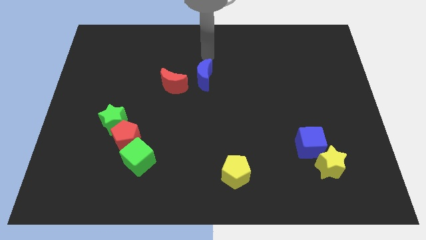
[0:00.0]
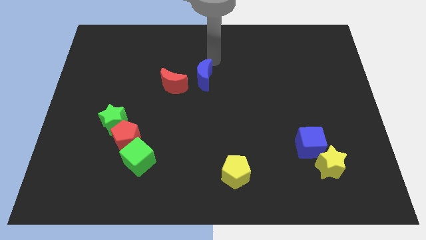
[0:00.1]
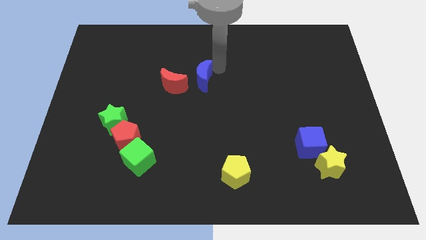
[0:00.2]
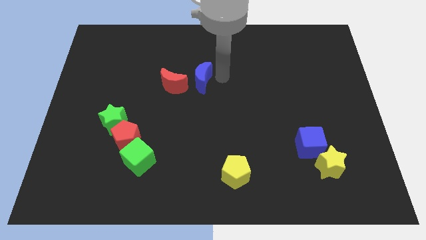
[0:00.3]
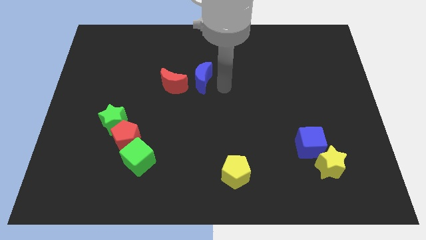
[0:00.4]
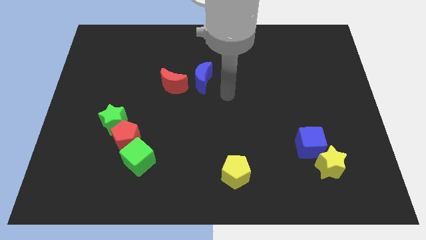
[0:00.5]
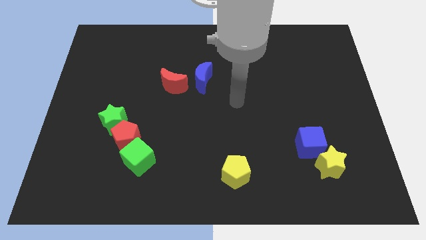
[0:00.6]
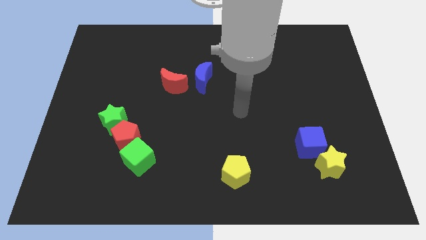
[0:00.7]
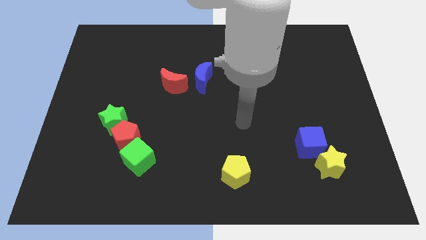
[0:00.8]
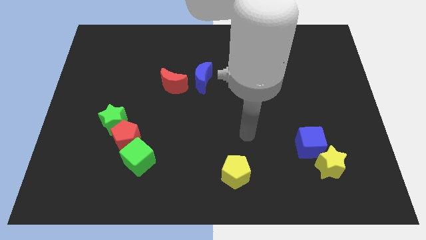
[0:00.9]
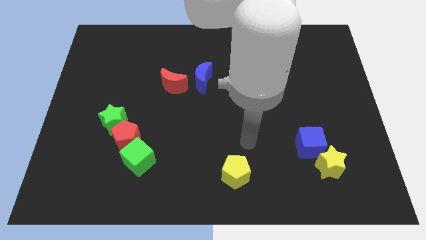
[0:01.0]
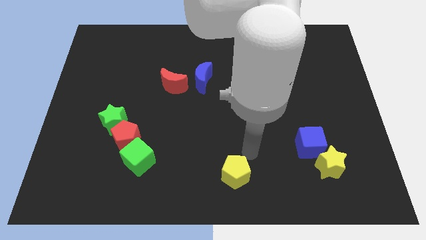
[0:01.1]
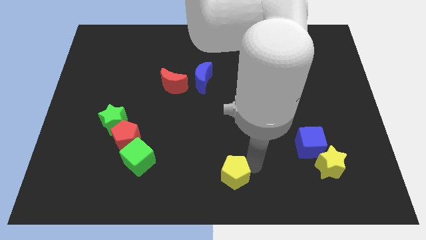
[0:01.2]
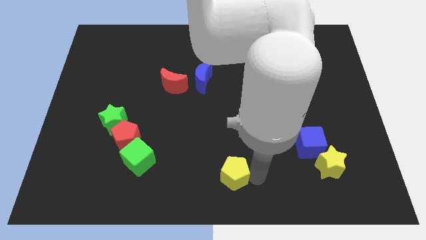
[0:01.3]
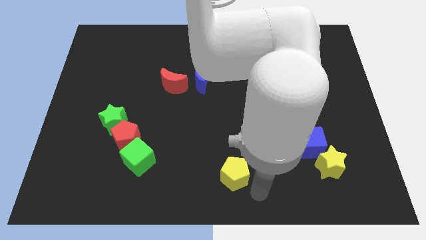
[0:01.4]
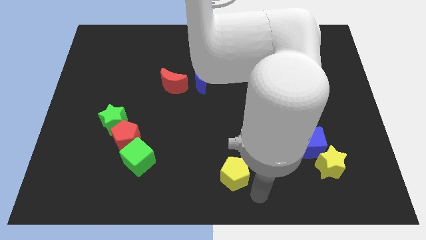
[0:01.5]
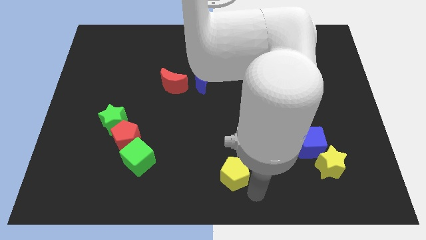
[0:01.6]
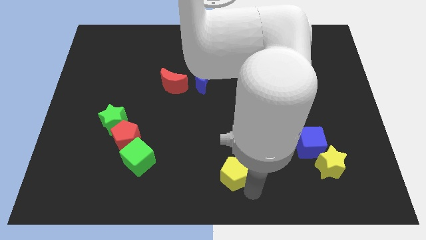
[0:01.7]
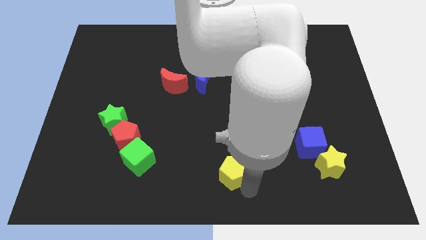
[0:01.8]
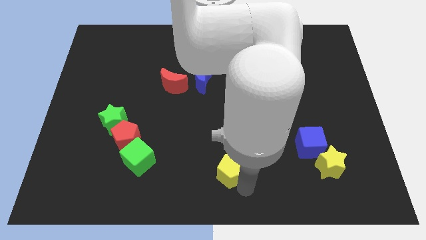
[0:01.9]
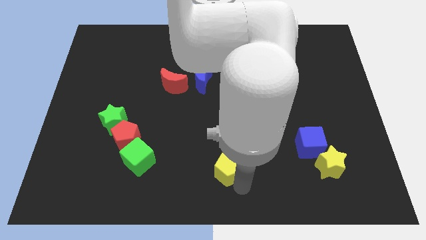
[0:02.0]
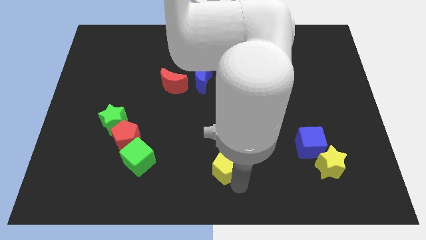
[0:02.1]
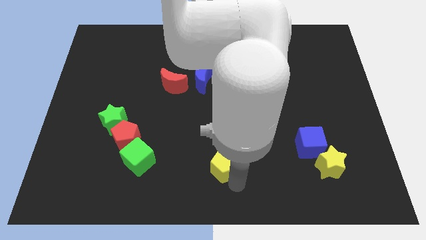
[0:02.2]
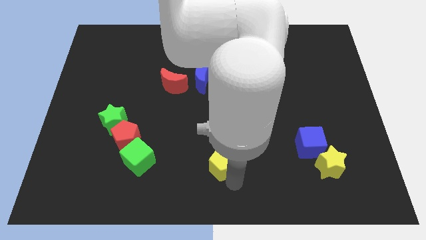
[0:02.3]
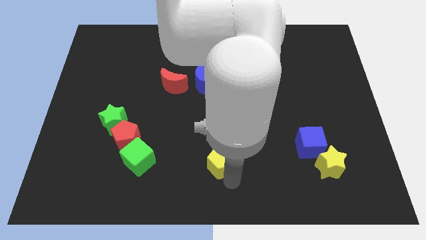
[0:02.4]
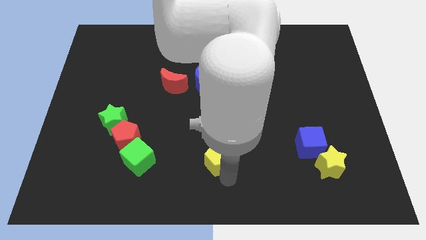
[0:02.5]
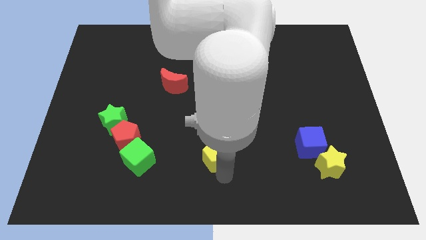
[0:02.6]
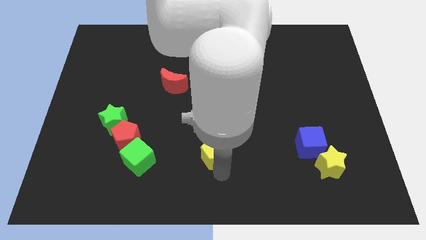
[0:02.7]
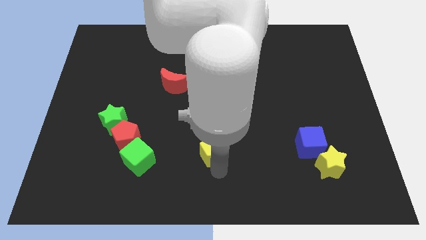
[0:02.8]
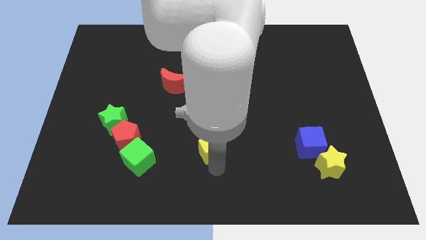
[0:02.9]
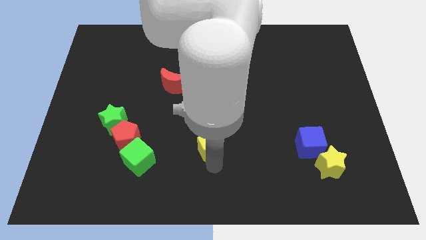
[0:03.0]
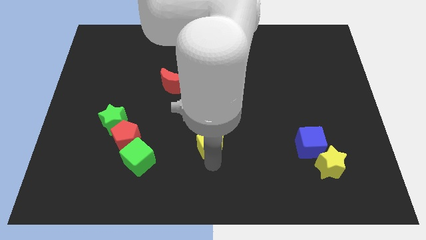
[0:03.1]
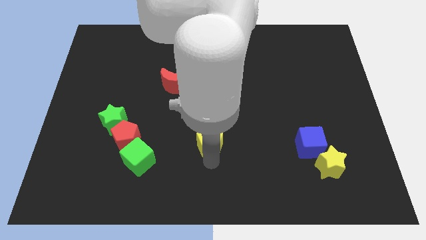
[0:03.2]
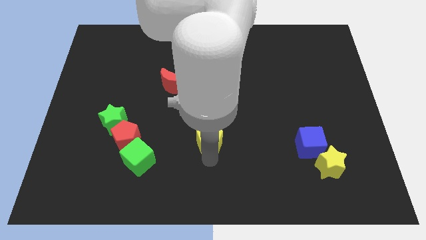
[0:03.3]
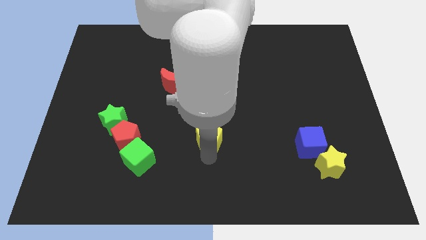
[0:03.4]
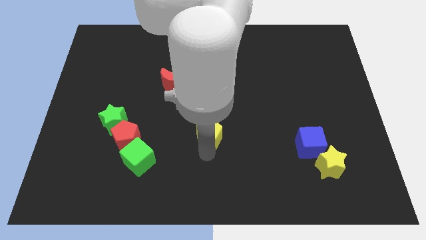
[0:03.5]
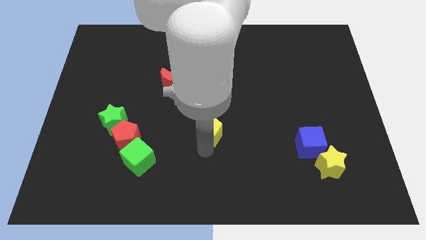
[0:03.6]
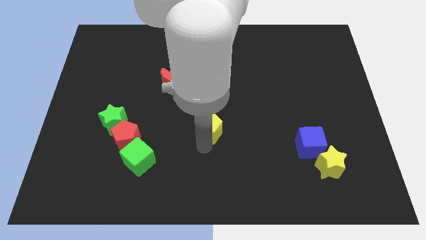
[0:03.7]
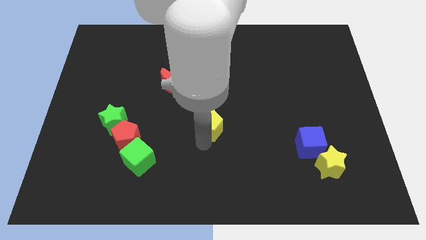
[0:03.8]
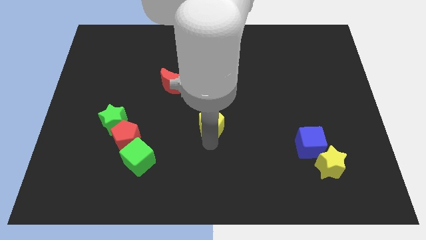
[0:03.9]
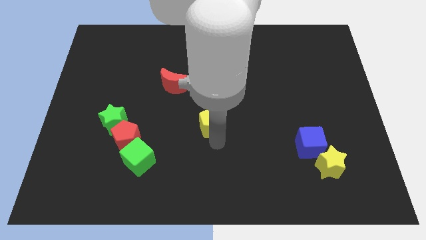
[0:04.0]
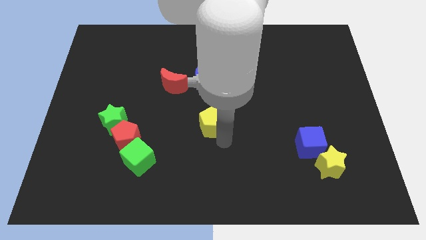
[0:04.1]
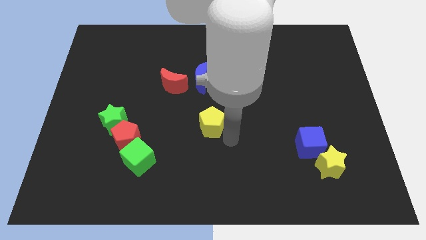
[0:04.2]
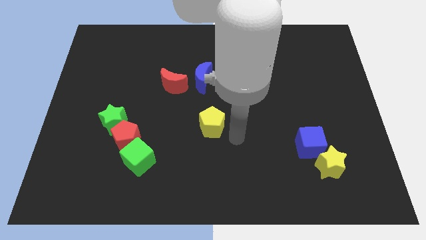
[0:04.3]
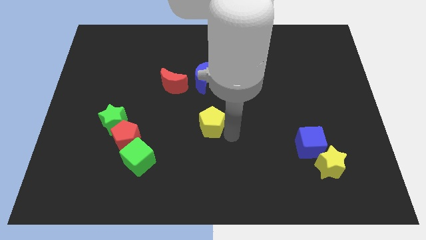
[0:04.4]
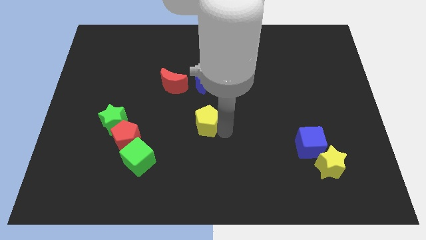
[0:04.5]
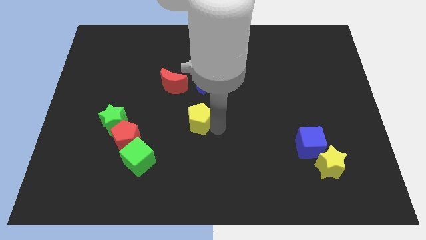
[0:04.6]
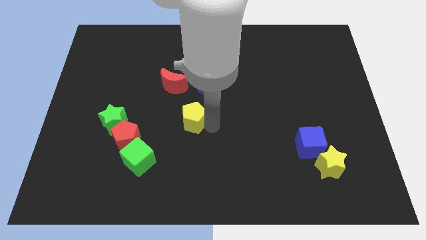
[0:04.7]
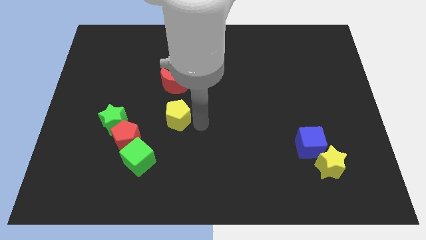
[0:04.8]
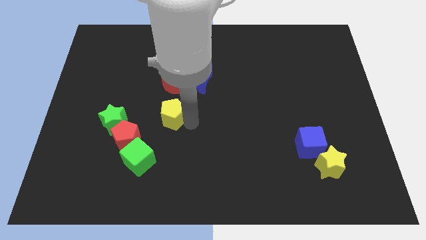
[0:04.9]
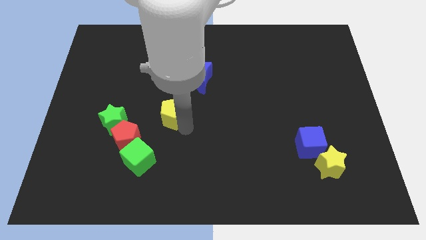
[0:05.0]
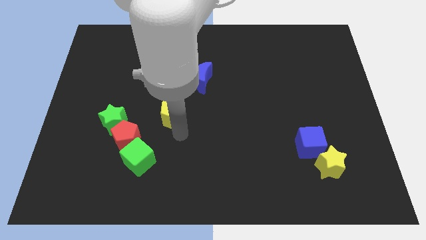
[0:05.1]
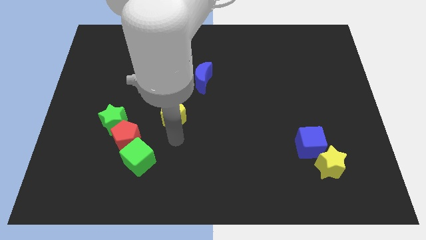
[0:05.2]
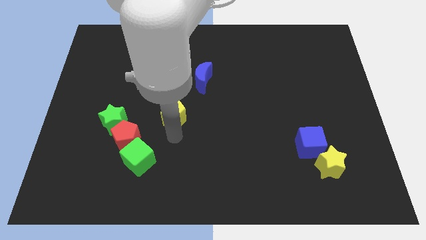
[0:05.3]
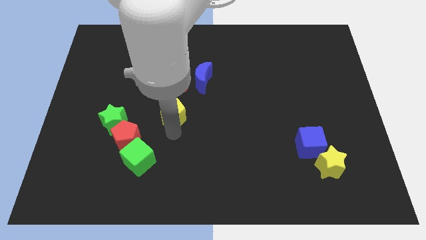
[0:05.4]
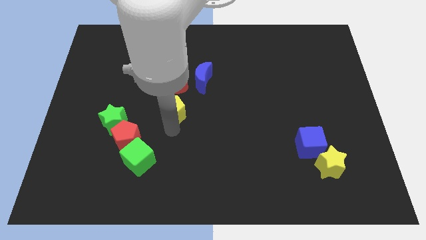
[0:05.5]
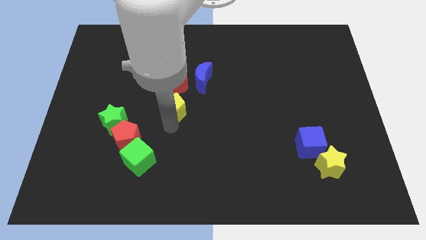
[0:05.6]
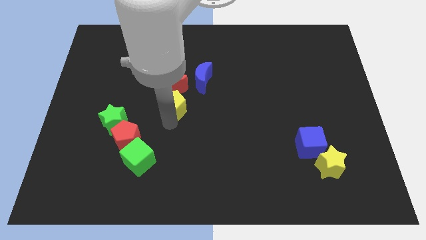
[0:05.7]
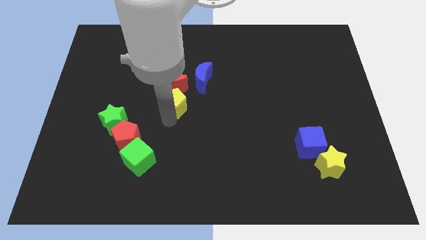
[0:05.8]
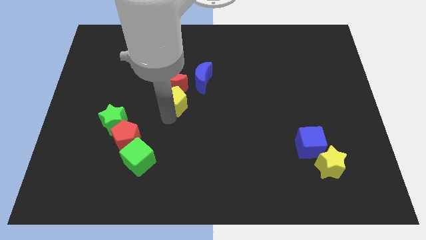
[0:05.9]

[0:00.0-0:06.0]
slide the yellow pentagon next to the red moon

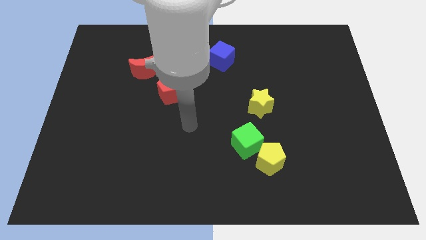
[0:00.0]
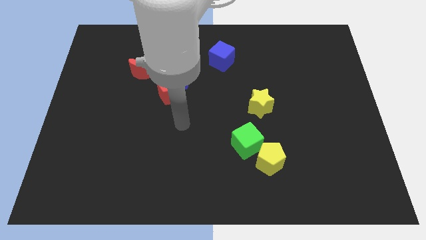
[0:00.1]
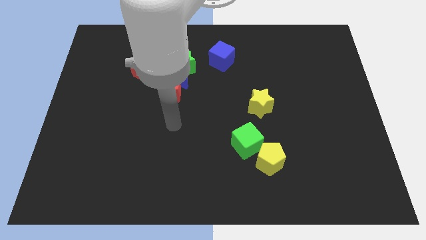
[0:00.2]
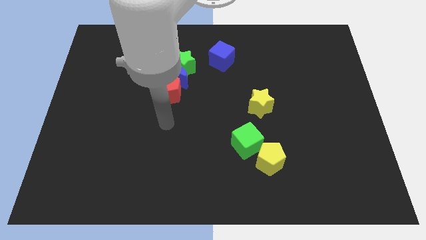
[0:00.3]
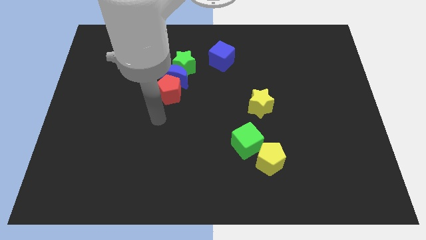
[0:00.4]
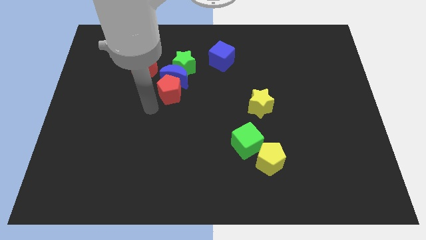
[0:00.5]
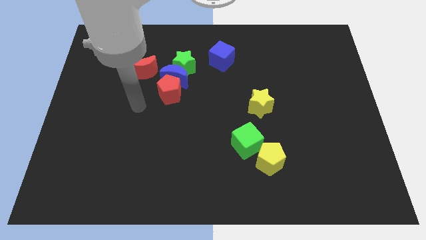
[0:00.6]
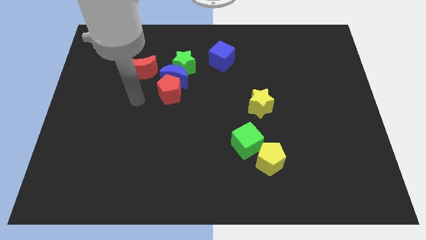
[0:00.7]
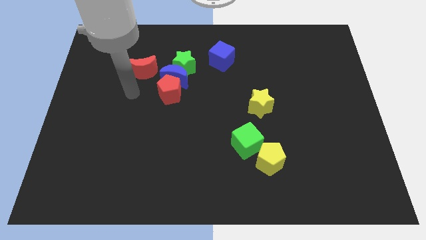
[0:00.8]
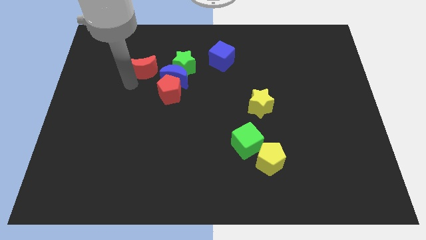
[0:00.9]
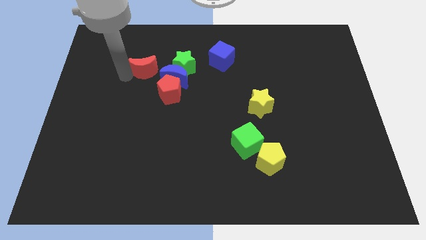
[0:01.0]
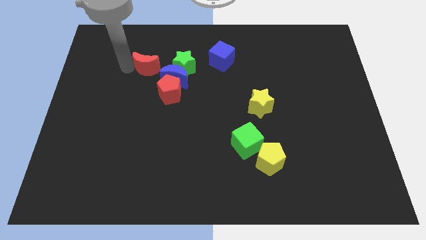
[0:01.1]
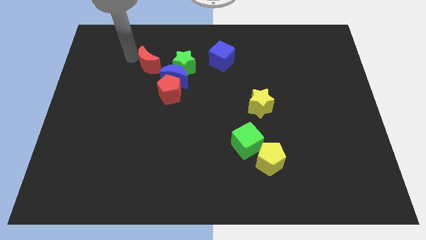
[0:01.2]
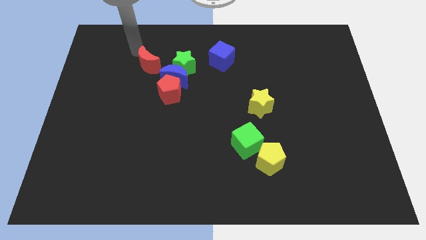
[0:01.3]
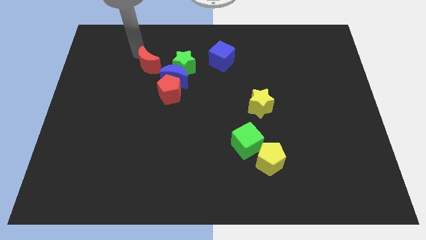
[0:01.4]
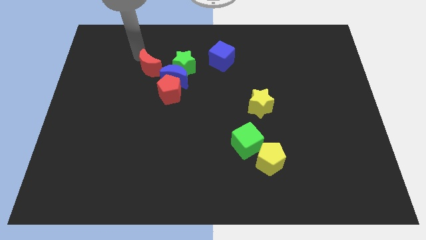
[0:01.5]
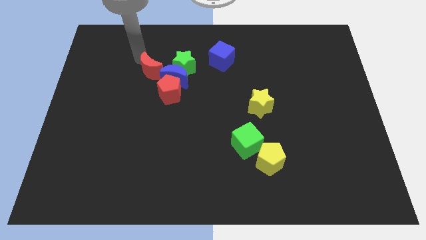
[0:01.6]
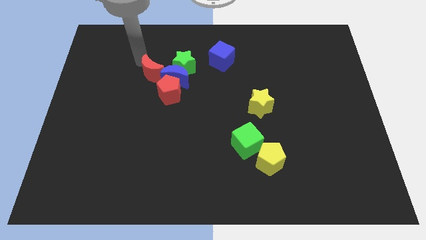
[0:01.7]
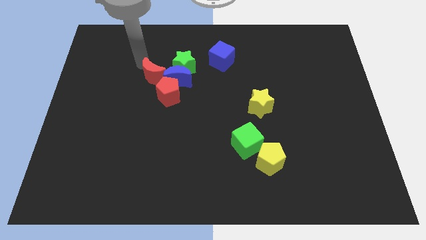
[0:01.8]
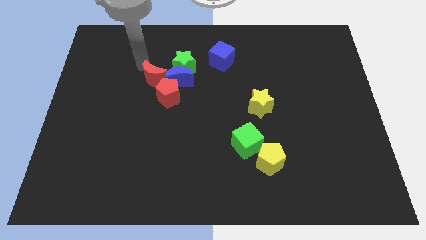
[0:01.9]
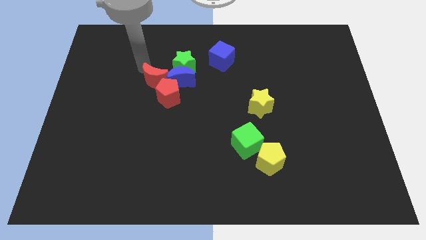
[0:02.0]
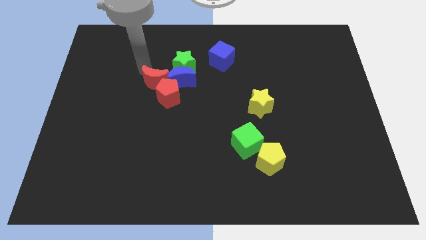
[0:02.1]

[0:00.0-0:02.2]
put the red moon next to the red pentagon
